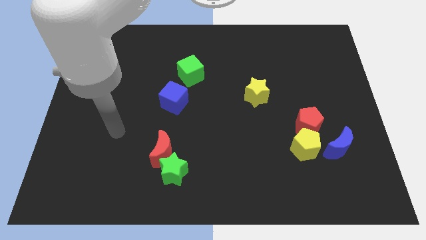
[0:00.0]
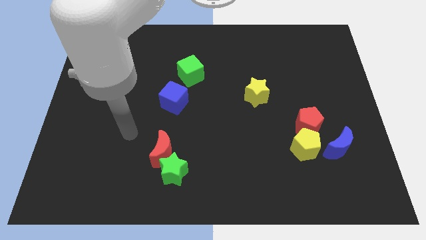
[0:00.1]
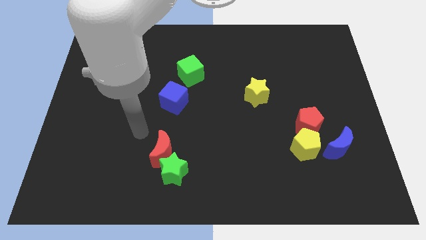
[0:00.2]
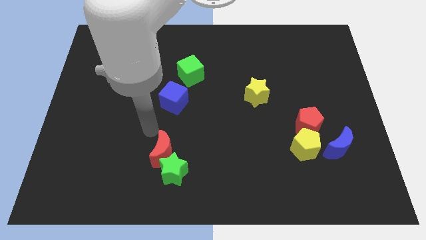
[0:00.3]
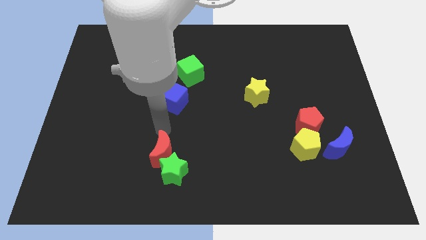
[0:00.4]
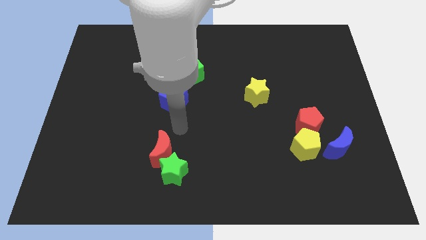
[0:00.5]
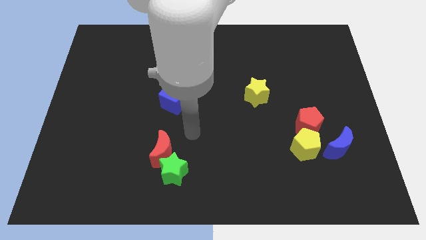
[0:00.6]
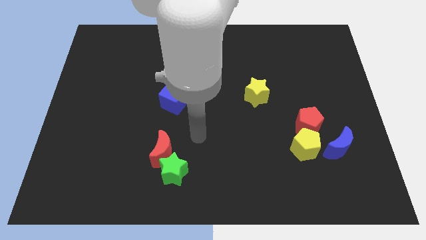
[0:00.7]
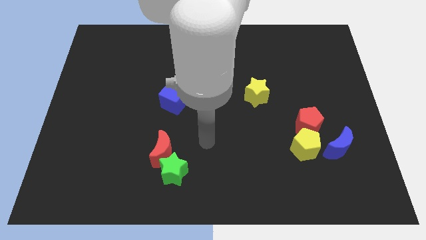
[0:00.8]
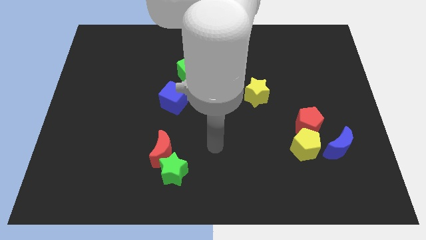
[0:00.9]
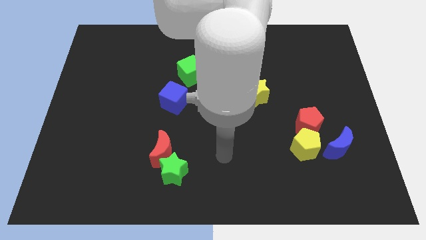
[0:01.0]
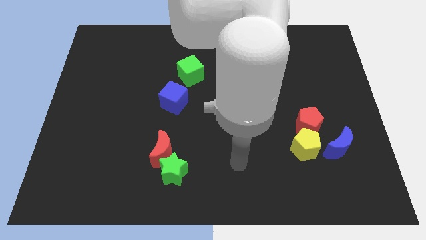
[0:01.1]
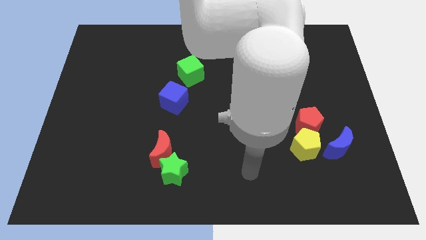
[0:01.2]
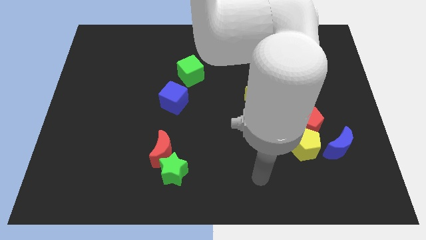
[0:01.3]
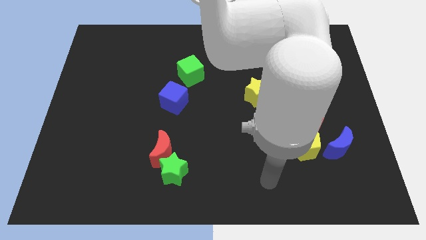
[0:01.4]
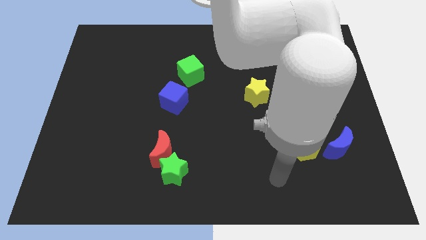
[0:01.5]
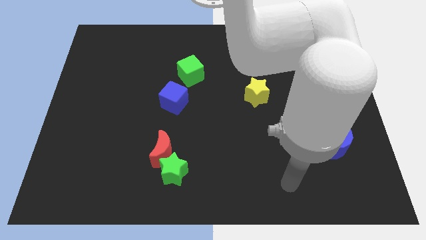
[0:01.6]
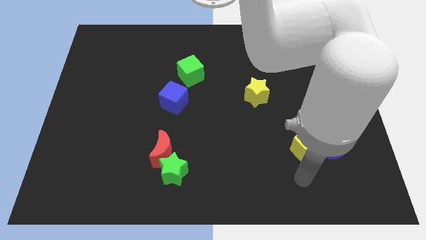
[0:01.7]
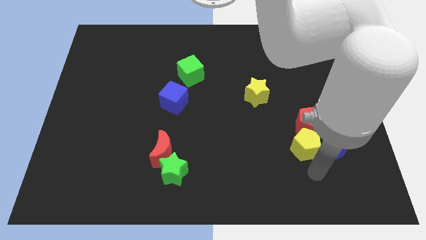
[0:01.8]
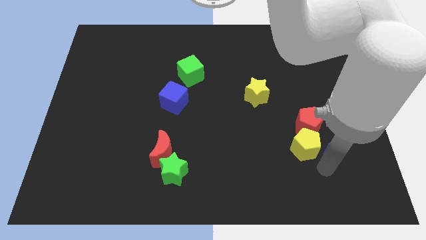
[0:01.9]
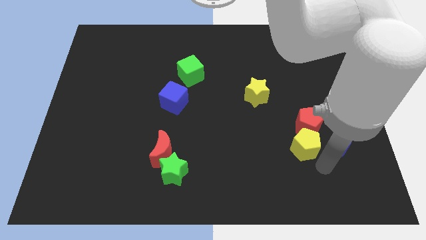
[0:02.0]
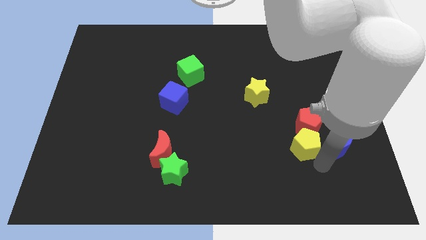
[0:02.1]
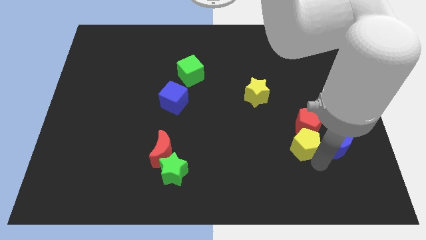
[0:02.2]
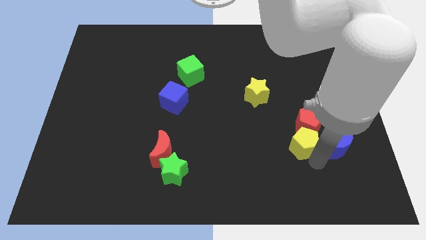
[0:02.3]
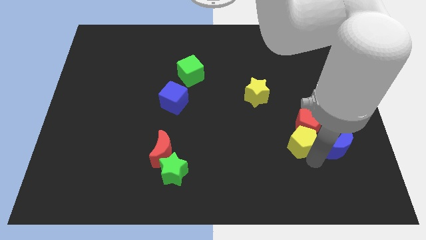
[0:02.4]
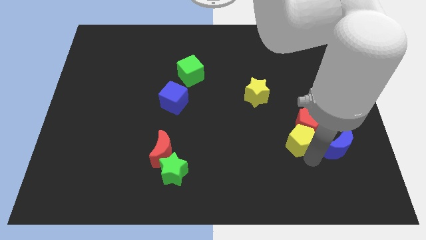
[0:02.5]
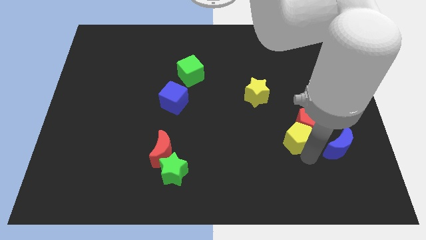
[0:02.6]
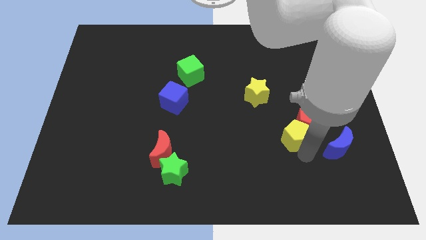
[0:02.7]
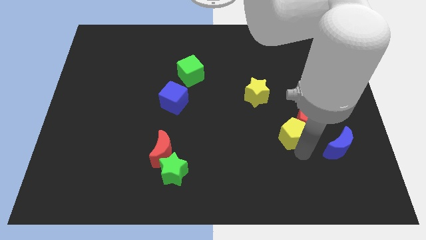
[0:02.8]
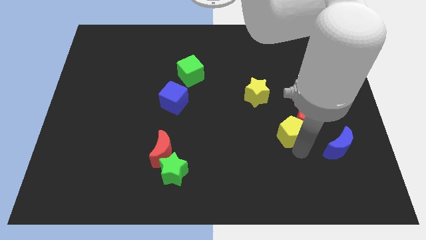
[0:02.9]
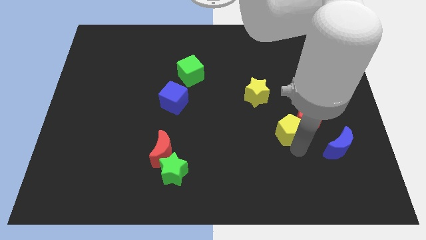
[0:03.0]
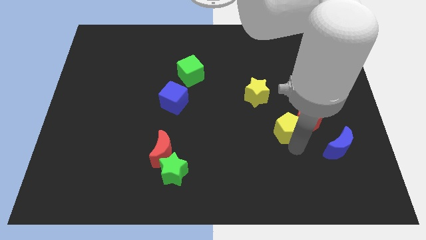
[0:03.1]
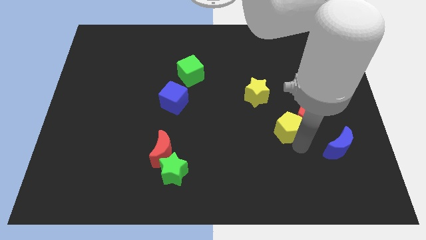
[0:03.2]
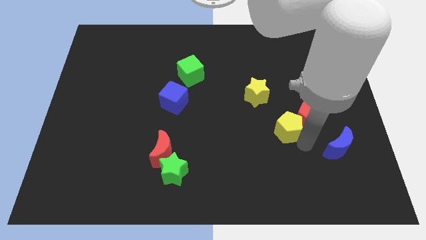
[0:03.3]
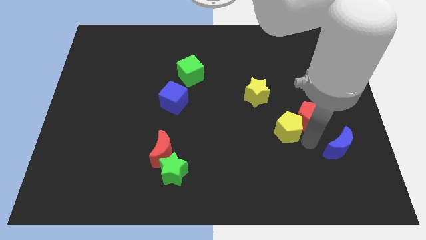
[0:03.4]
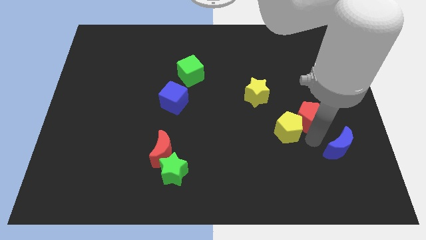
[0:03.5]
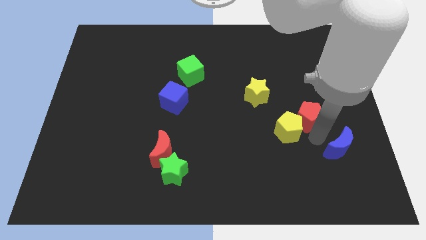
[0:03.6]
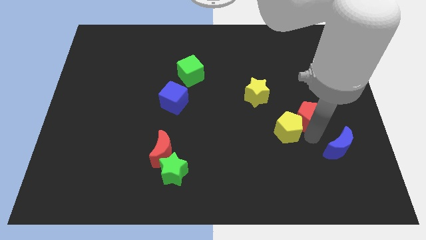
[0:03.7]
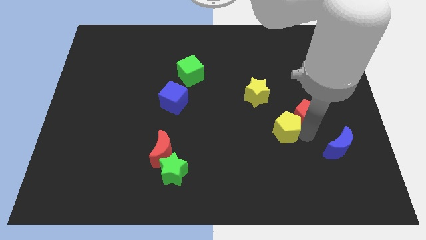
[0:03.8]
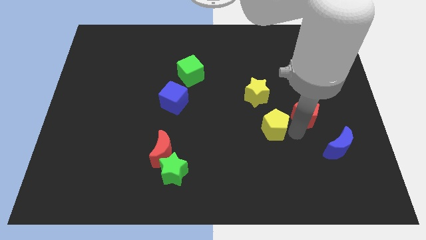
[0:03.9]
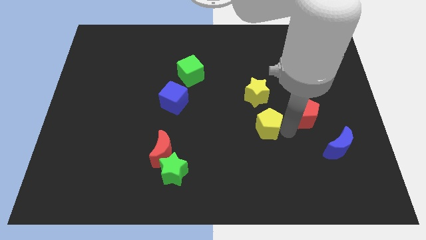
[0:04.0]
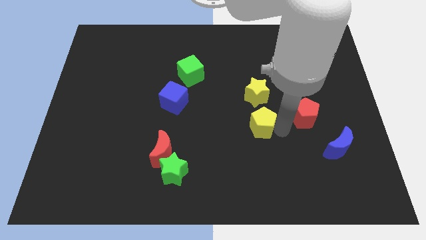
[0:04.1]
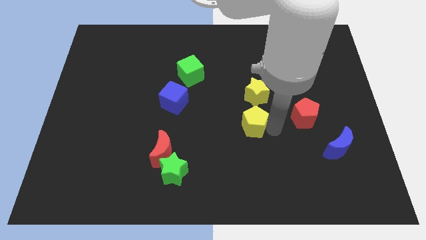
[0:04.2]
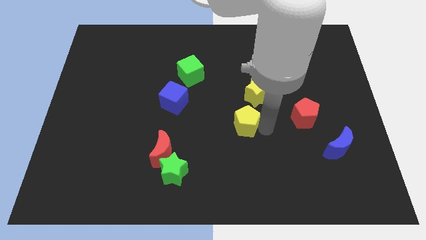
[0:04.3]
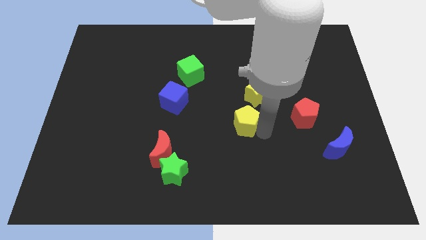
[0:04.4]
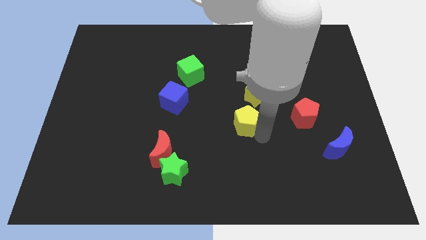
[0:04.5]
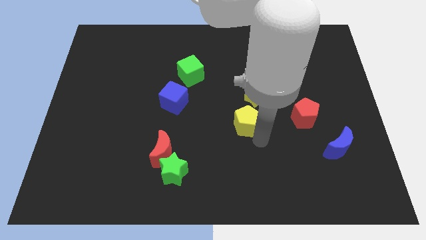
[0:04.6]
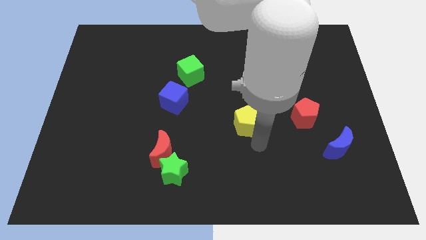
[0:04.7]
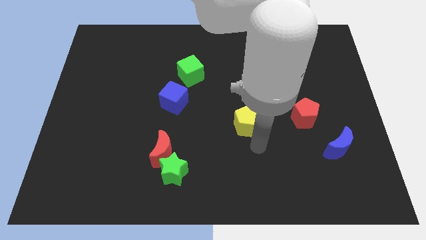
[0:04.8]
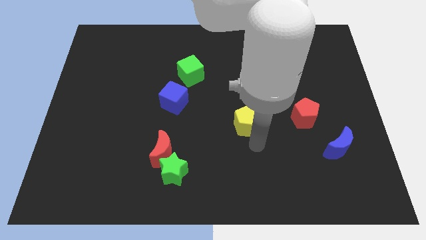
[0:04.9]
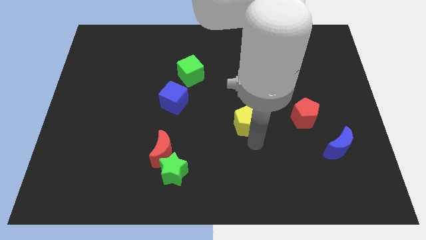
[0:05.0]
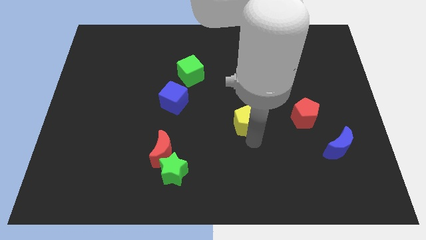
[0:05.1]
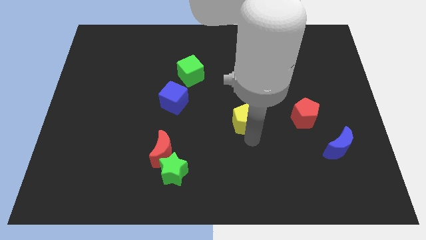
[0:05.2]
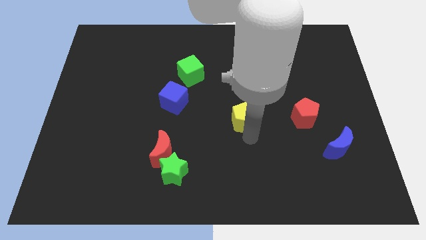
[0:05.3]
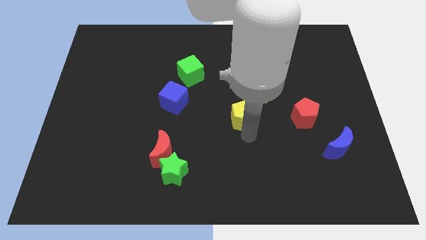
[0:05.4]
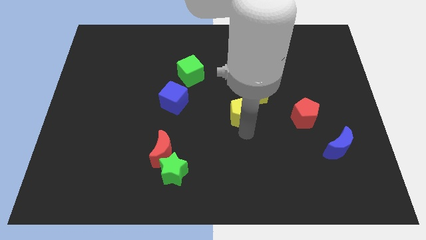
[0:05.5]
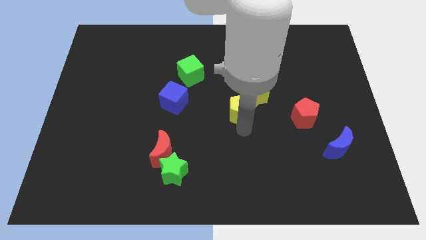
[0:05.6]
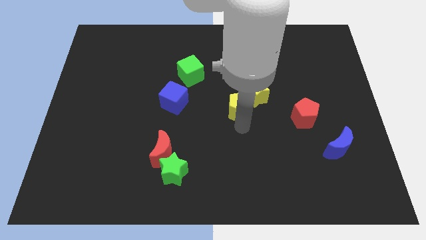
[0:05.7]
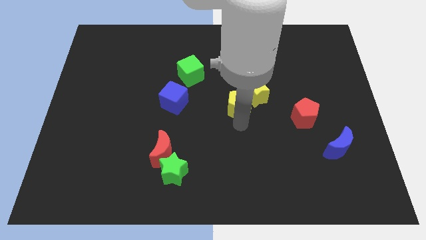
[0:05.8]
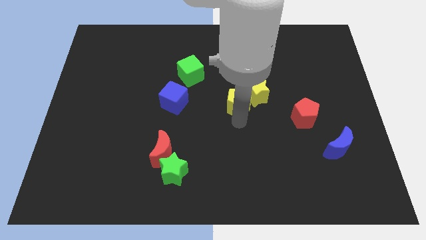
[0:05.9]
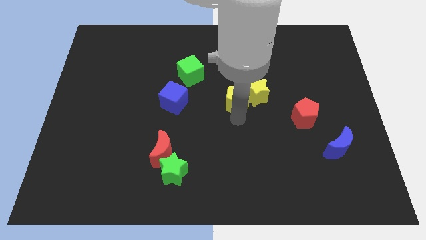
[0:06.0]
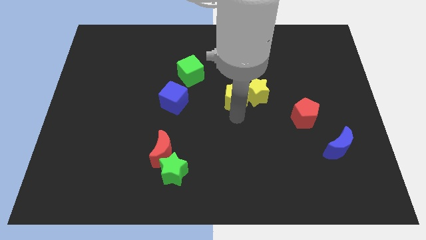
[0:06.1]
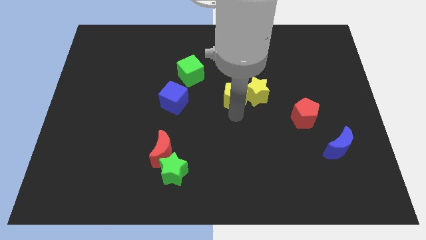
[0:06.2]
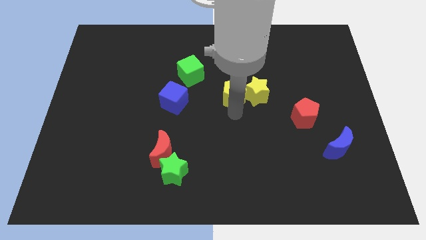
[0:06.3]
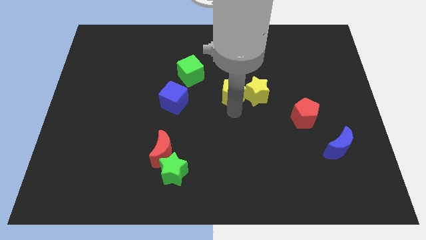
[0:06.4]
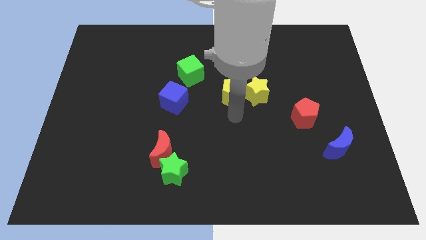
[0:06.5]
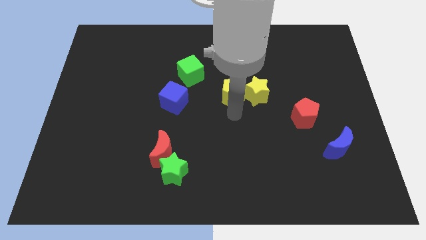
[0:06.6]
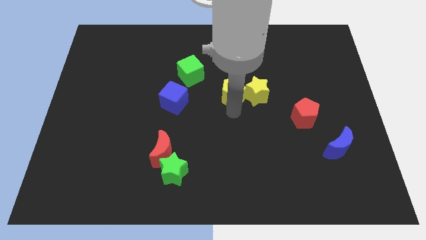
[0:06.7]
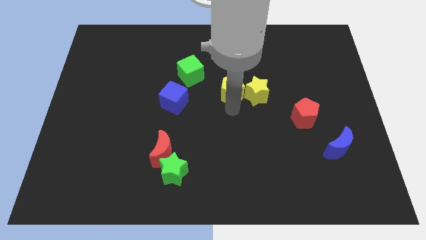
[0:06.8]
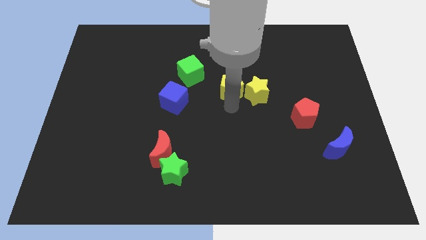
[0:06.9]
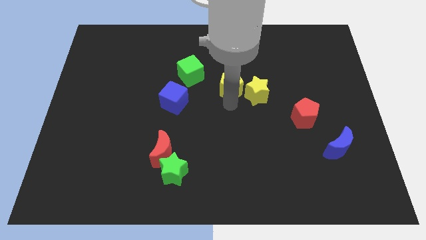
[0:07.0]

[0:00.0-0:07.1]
push the yellow pentagon just right of the green cube
